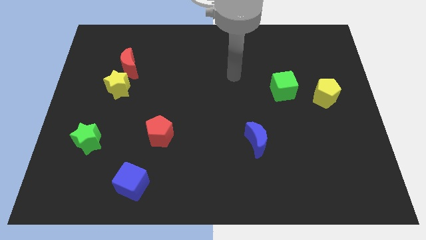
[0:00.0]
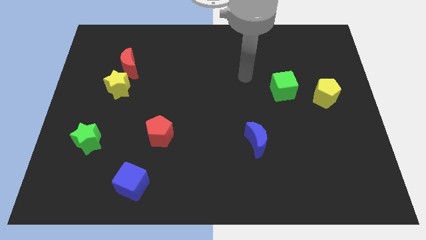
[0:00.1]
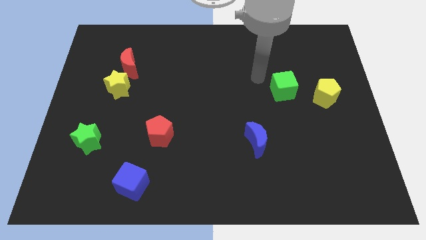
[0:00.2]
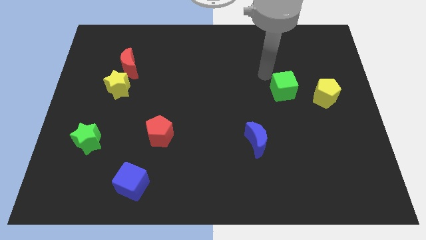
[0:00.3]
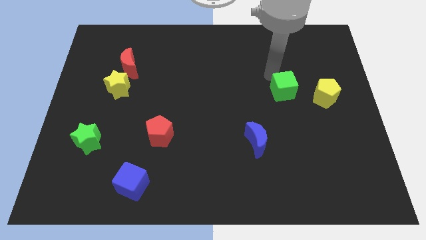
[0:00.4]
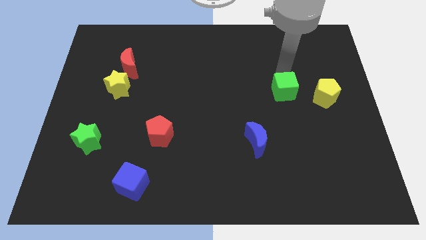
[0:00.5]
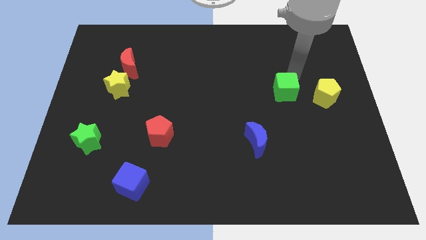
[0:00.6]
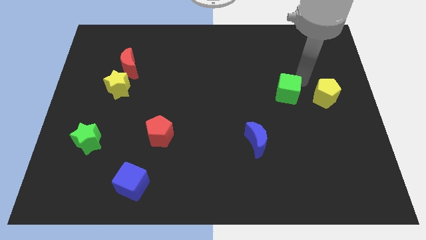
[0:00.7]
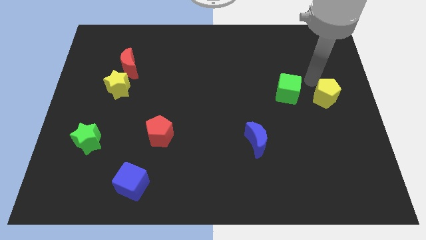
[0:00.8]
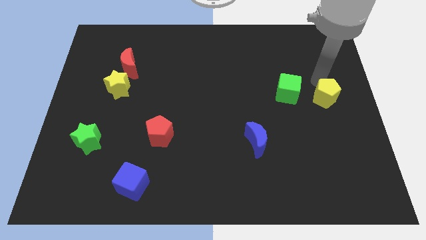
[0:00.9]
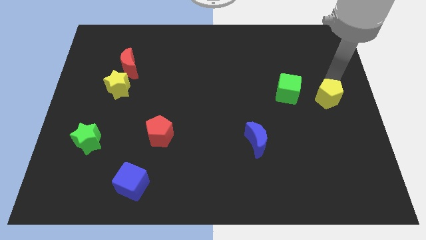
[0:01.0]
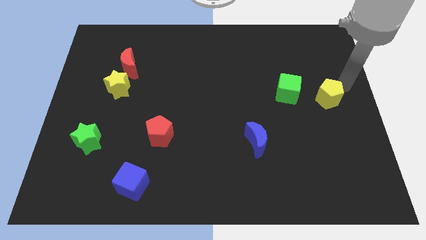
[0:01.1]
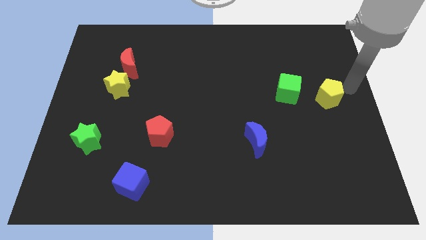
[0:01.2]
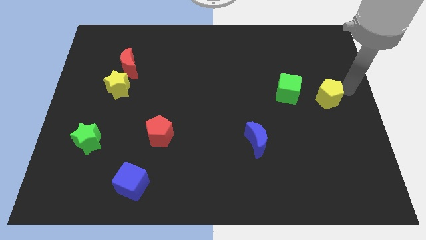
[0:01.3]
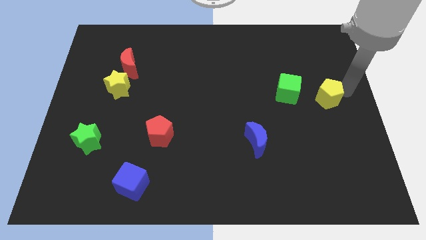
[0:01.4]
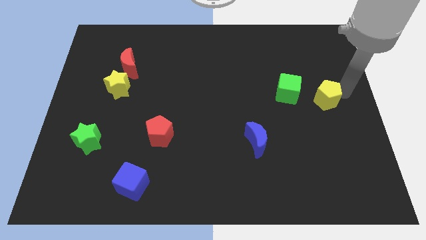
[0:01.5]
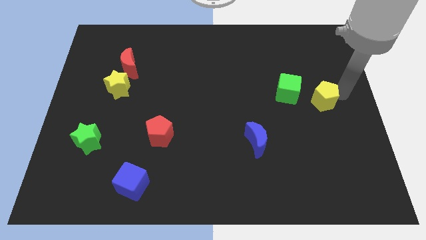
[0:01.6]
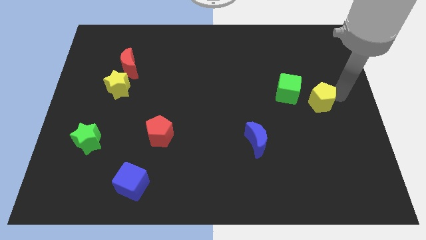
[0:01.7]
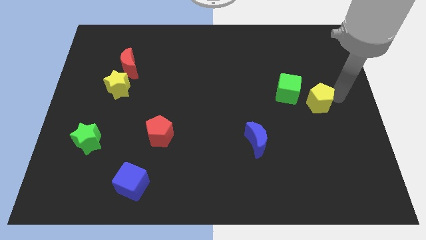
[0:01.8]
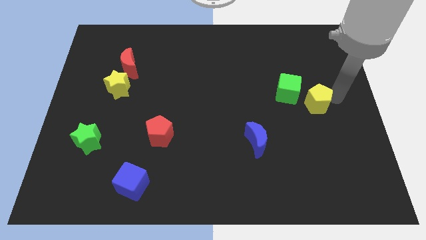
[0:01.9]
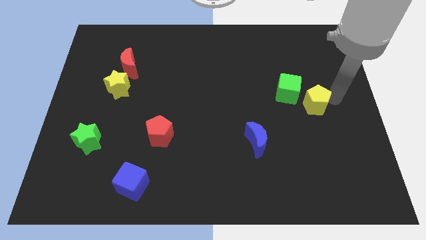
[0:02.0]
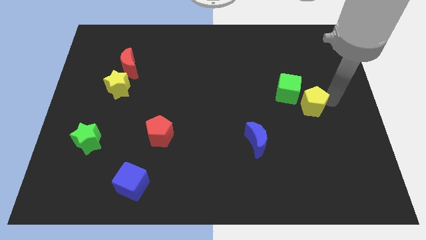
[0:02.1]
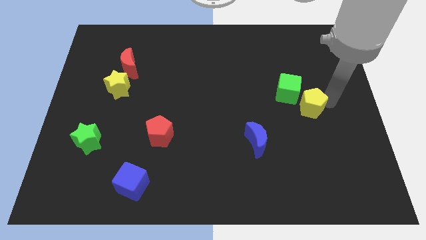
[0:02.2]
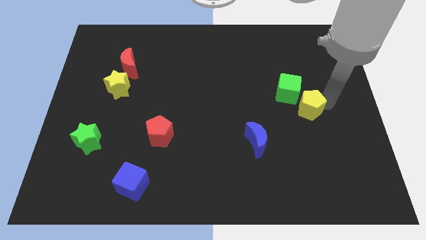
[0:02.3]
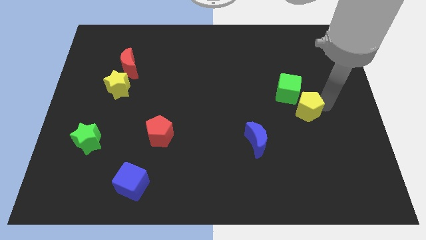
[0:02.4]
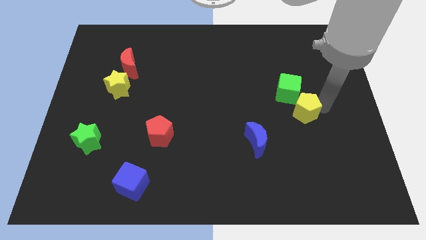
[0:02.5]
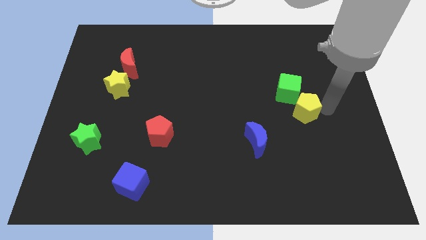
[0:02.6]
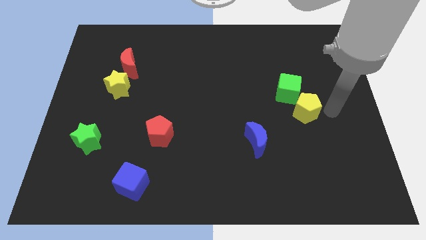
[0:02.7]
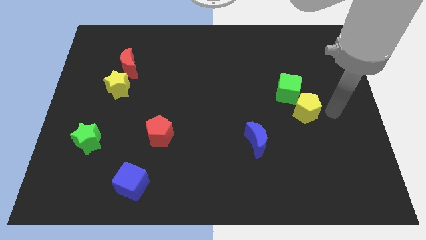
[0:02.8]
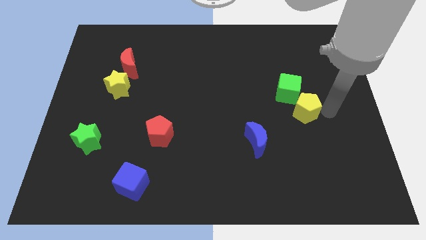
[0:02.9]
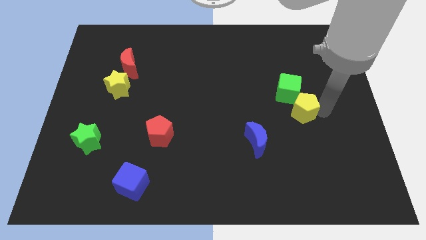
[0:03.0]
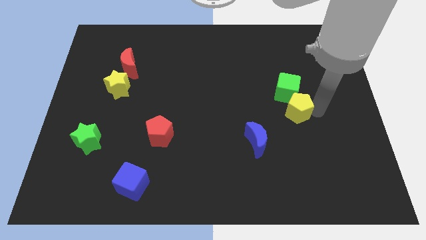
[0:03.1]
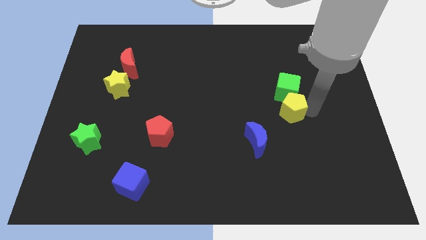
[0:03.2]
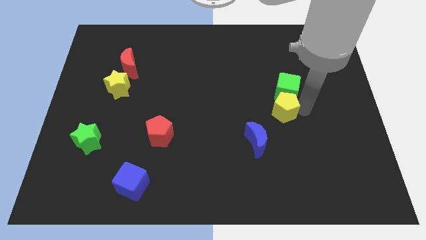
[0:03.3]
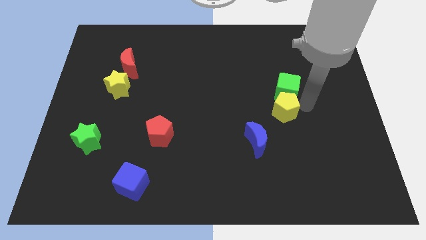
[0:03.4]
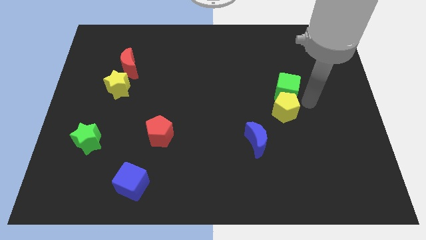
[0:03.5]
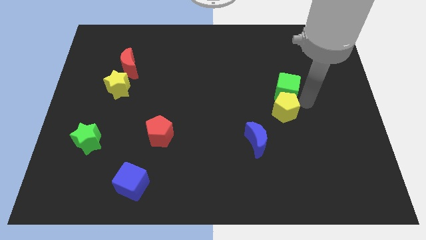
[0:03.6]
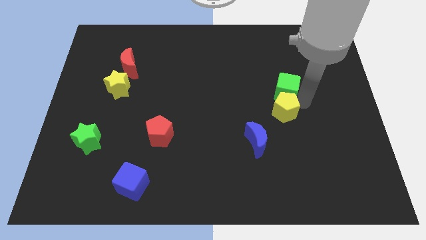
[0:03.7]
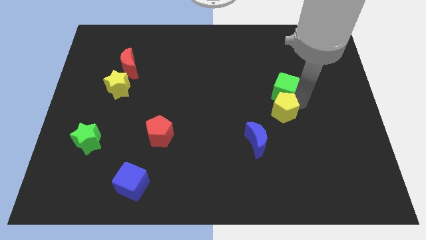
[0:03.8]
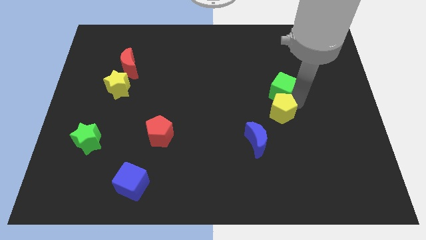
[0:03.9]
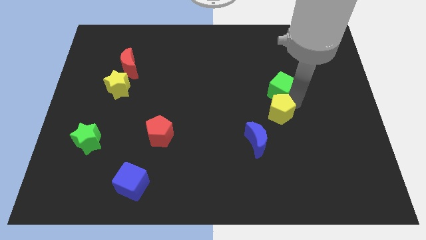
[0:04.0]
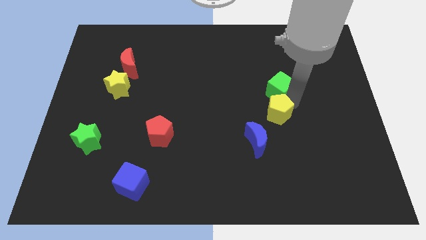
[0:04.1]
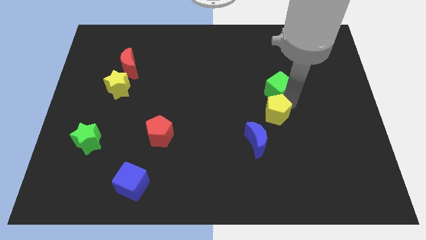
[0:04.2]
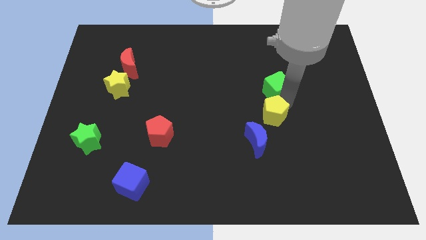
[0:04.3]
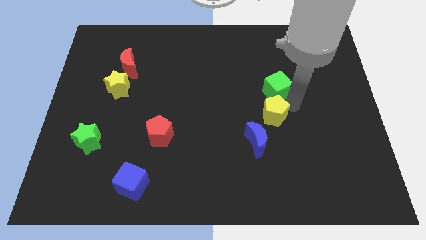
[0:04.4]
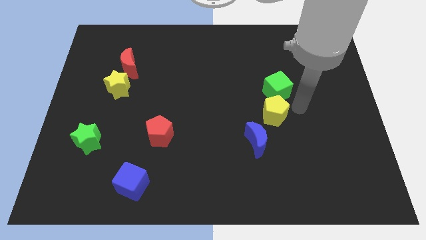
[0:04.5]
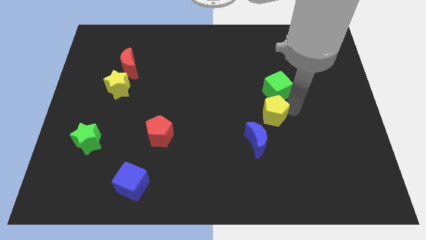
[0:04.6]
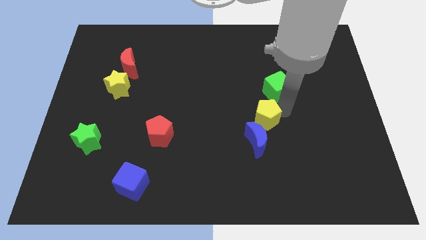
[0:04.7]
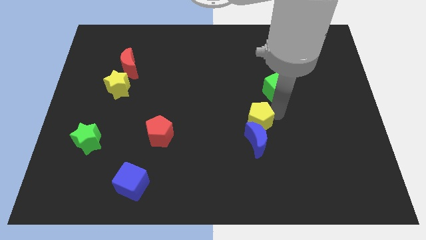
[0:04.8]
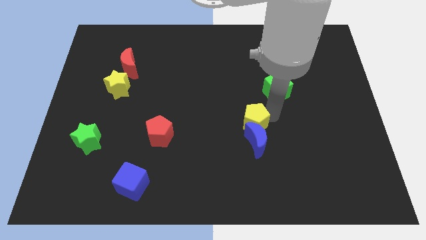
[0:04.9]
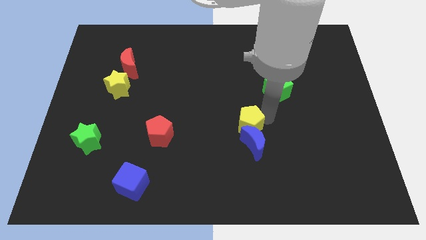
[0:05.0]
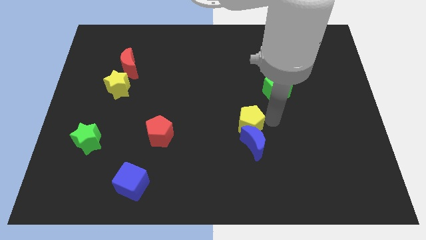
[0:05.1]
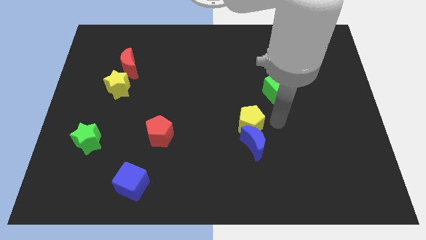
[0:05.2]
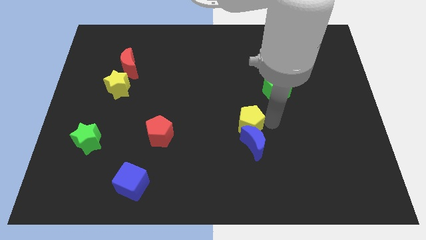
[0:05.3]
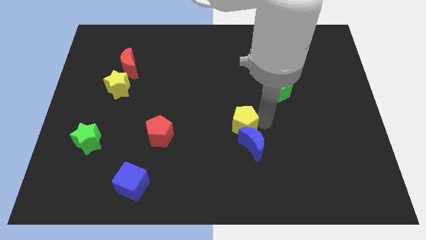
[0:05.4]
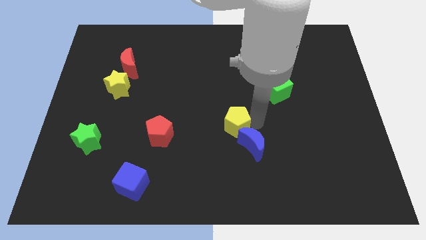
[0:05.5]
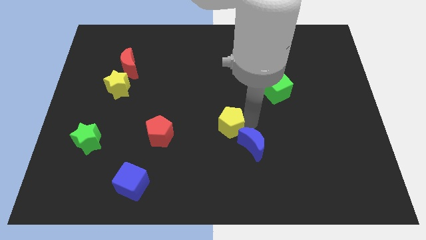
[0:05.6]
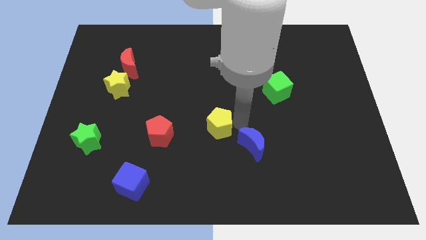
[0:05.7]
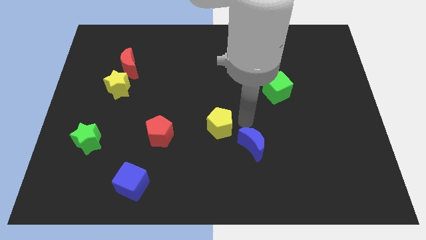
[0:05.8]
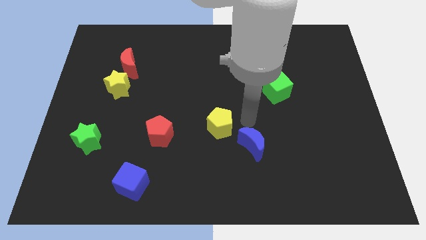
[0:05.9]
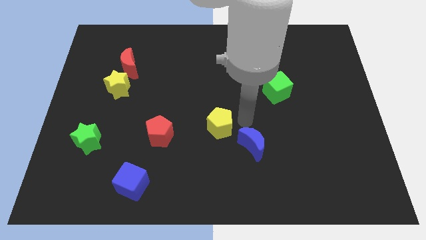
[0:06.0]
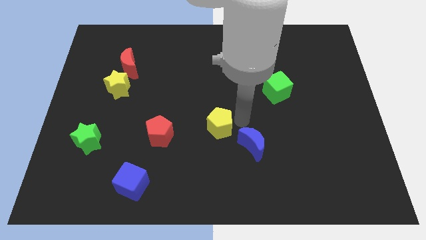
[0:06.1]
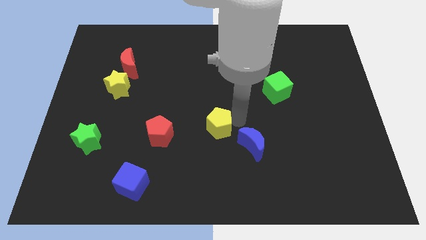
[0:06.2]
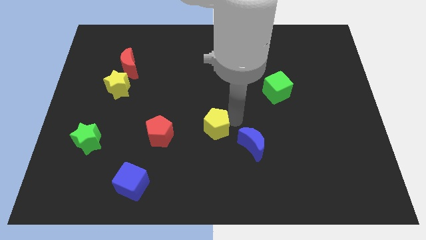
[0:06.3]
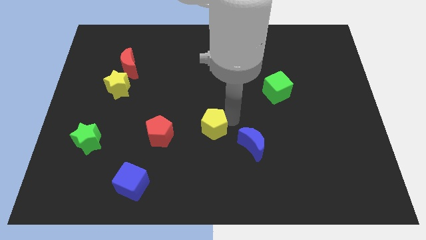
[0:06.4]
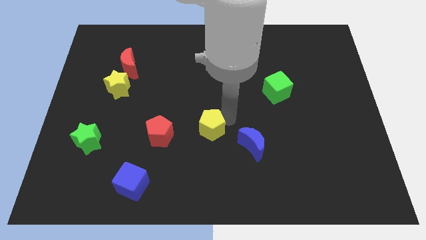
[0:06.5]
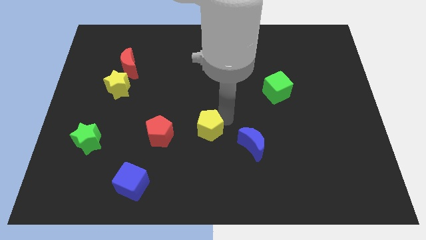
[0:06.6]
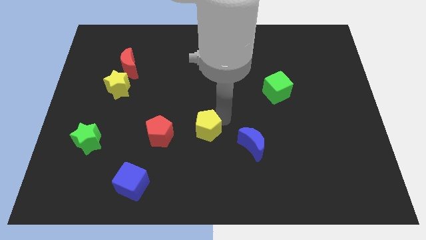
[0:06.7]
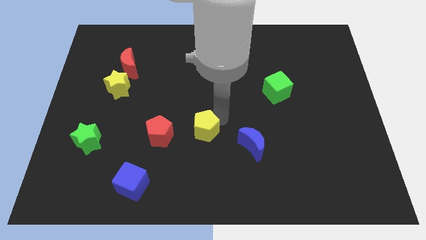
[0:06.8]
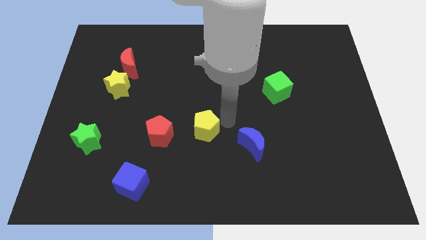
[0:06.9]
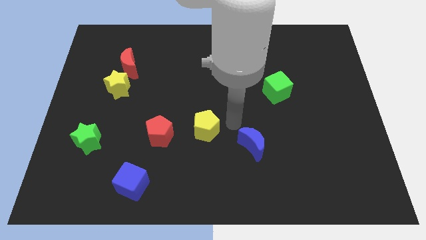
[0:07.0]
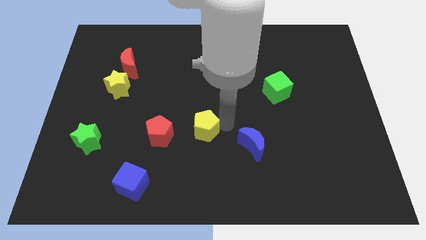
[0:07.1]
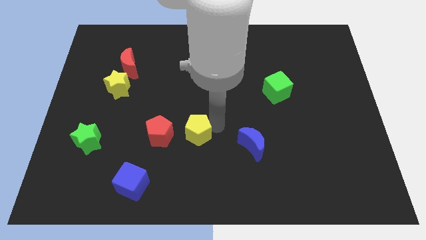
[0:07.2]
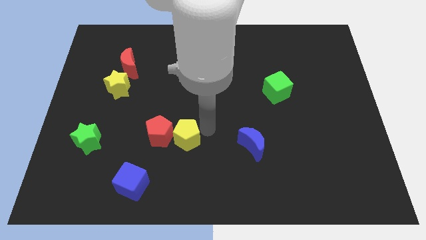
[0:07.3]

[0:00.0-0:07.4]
put the yellow pentagon towards the red pentagon
